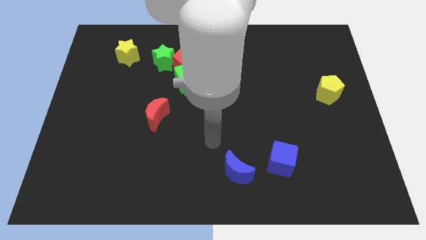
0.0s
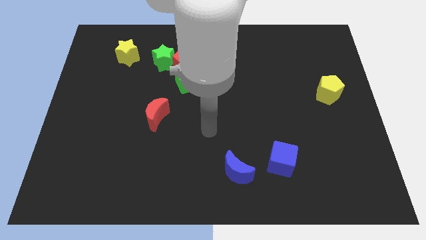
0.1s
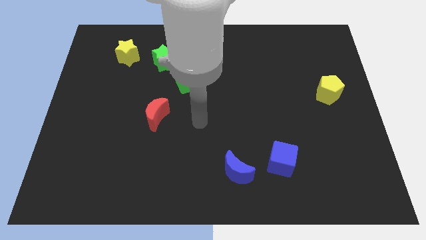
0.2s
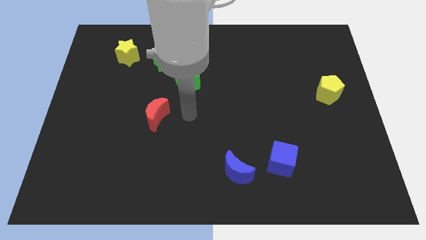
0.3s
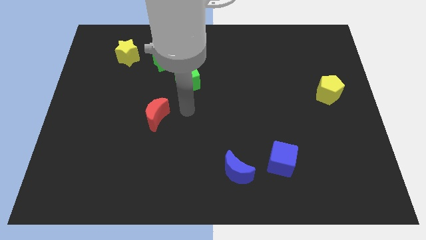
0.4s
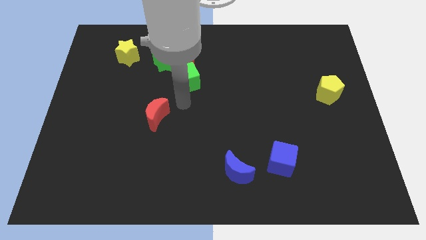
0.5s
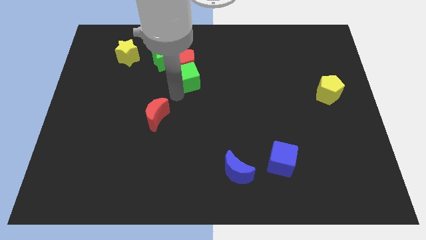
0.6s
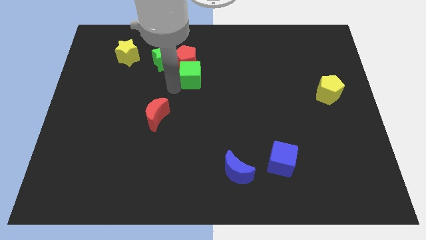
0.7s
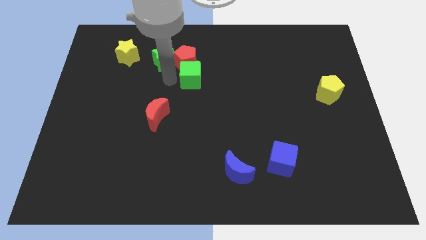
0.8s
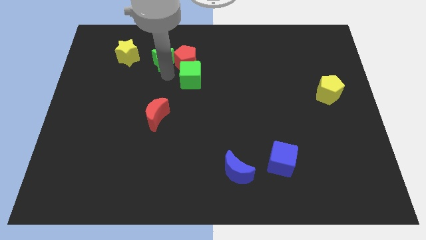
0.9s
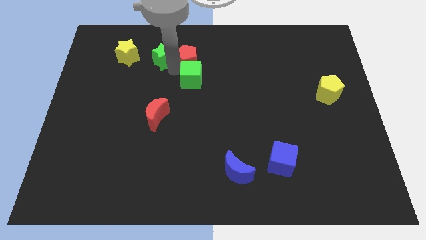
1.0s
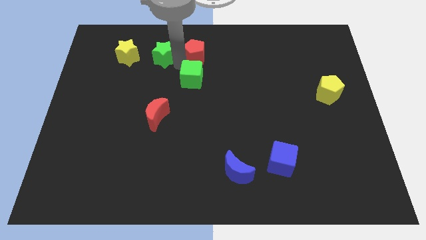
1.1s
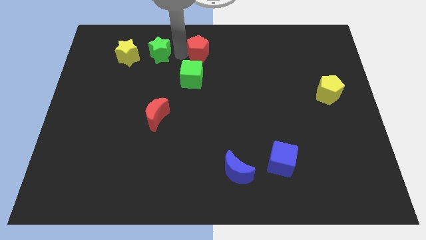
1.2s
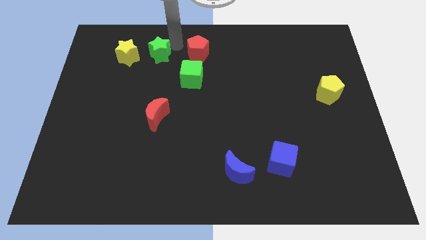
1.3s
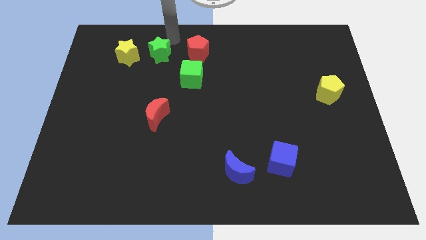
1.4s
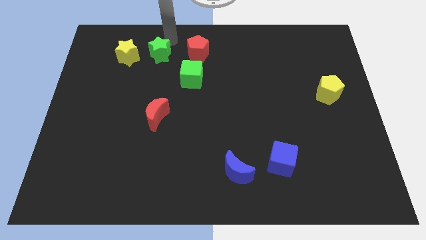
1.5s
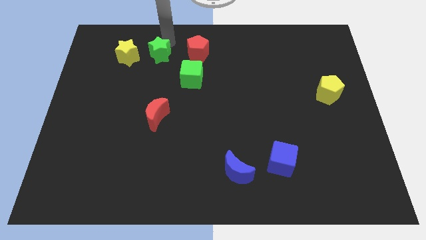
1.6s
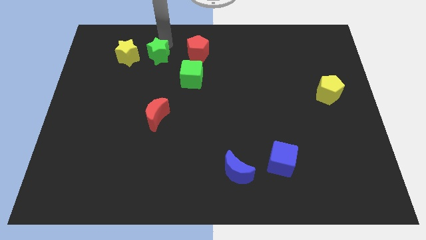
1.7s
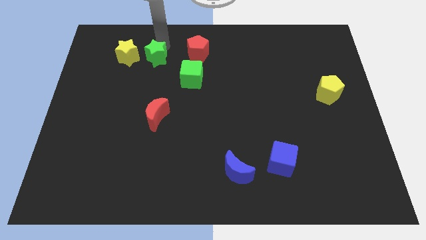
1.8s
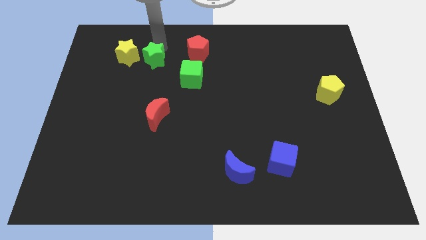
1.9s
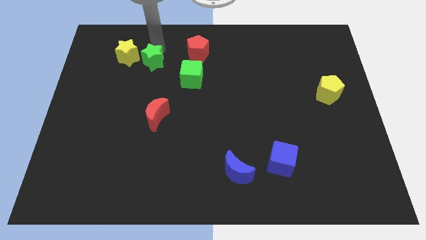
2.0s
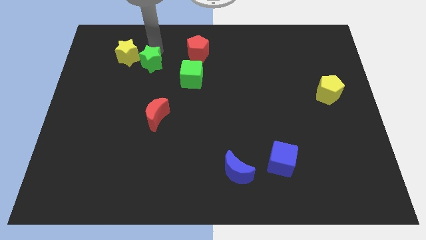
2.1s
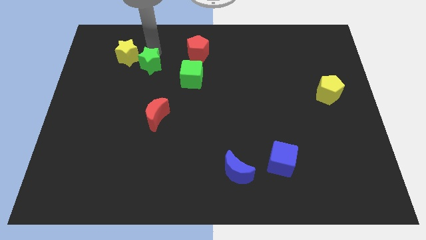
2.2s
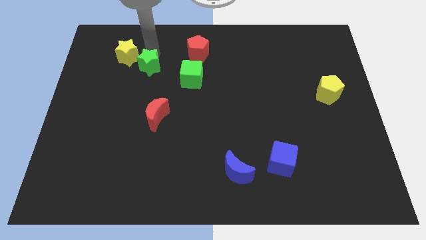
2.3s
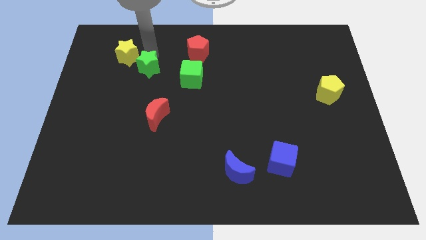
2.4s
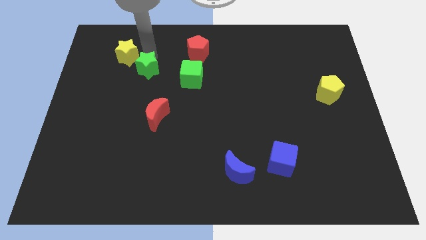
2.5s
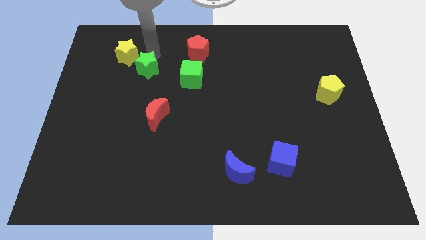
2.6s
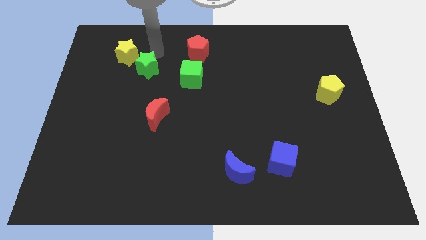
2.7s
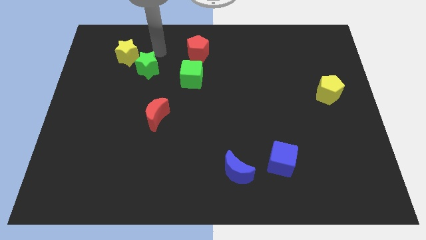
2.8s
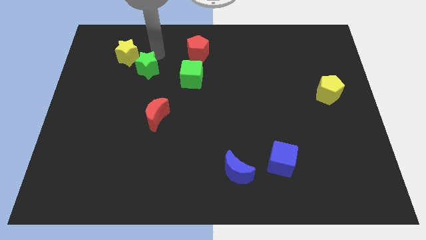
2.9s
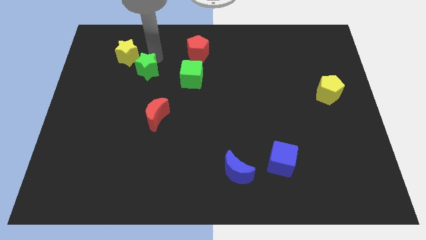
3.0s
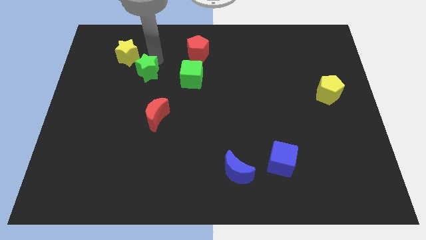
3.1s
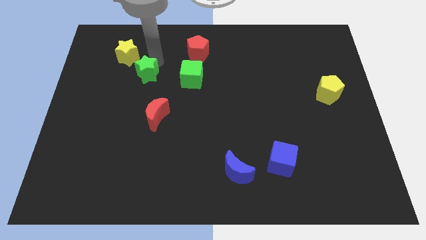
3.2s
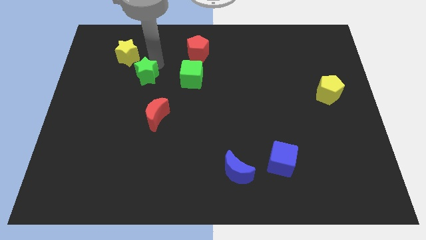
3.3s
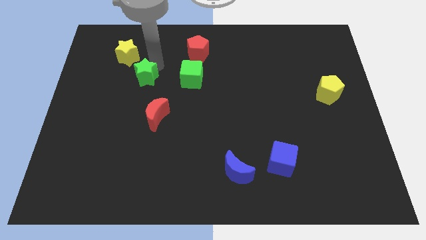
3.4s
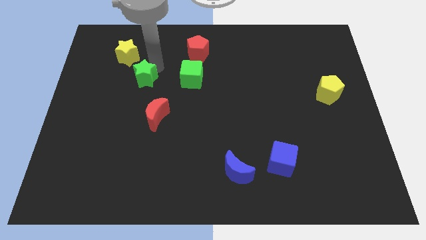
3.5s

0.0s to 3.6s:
slide the green star downwards and then left a little bit

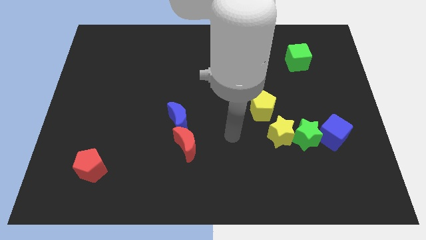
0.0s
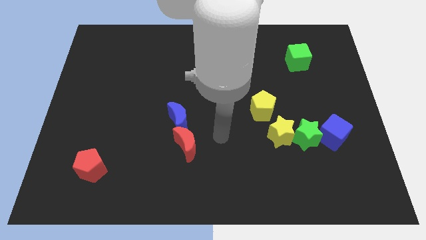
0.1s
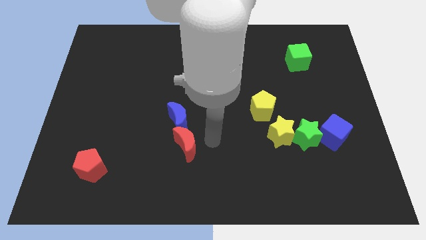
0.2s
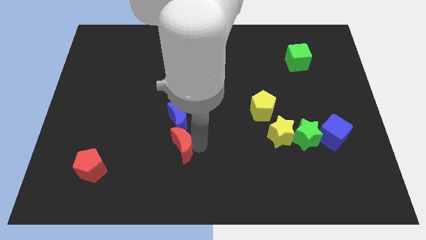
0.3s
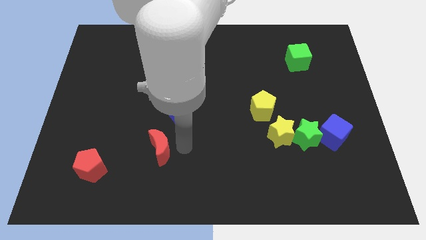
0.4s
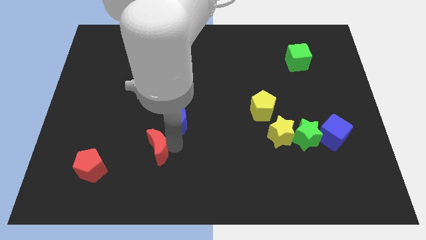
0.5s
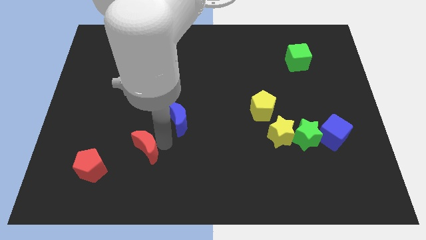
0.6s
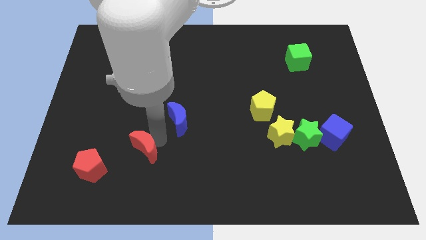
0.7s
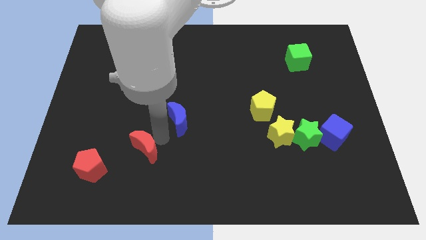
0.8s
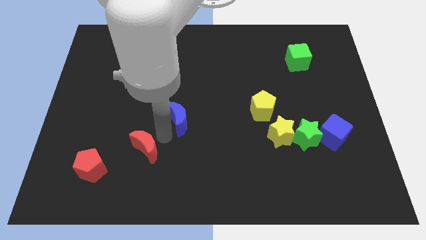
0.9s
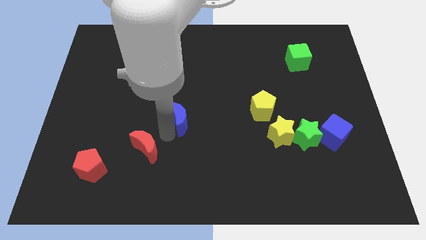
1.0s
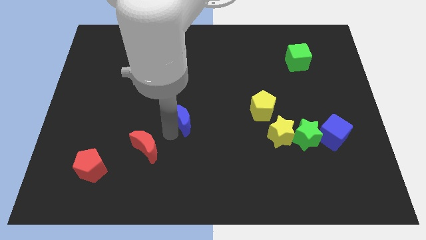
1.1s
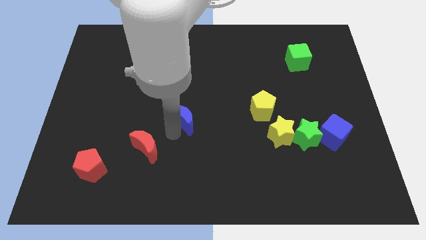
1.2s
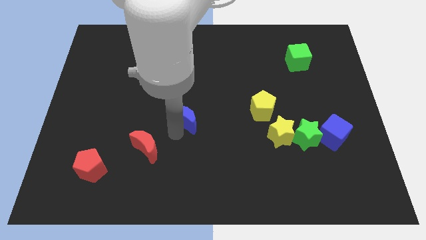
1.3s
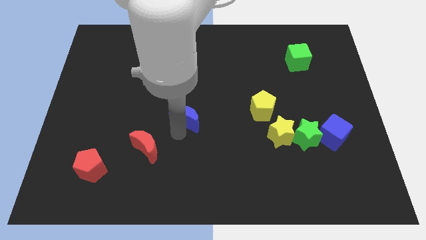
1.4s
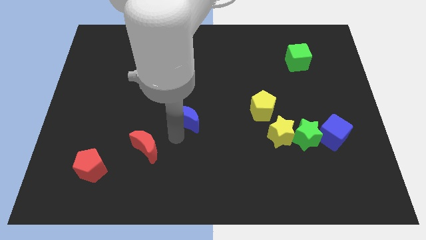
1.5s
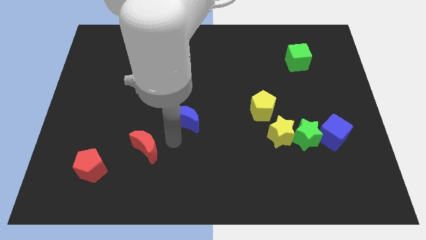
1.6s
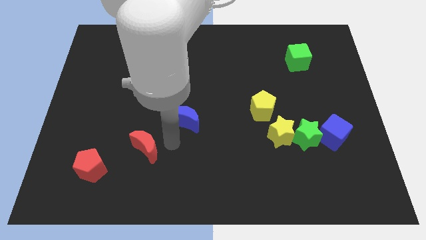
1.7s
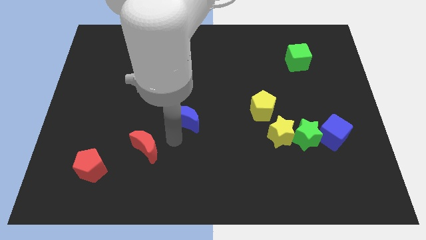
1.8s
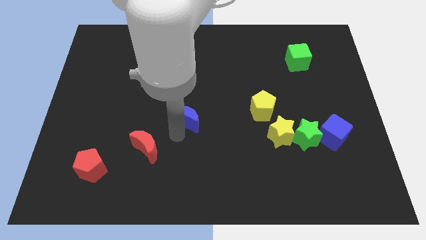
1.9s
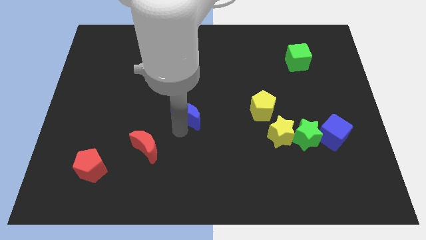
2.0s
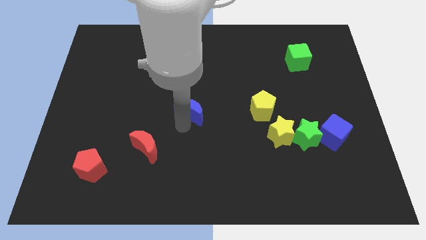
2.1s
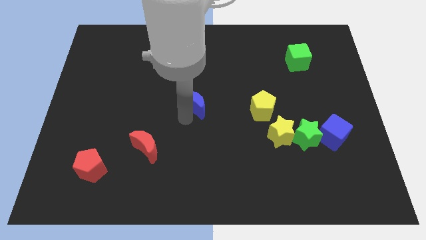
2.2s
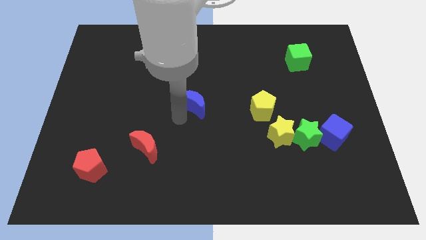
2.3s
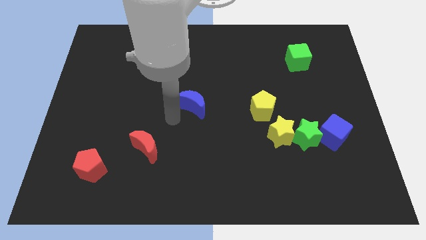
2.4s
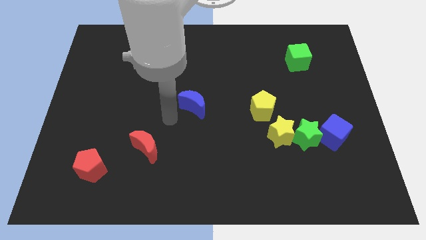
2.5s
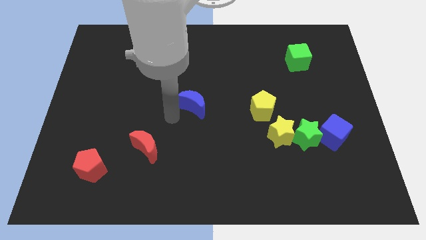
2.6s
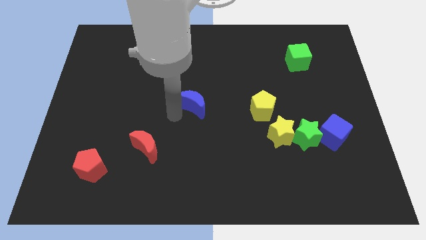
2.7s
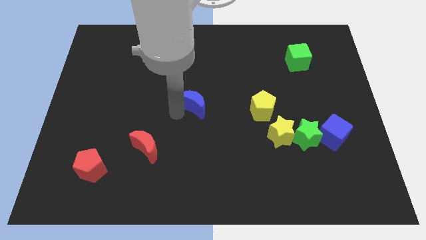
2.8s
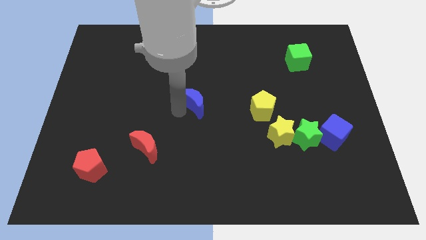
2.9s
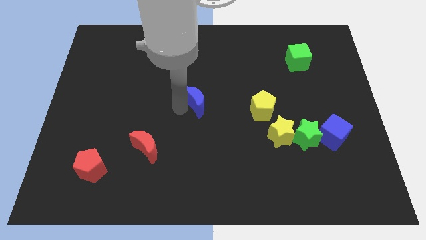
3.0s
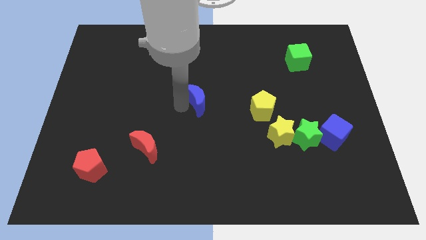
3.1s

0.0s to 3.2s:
slide the blue moon diagonally up and right slightly

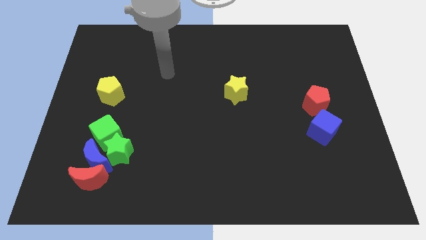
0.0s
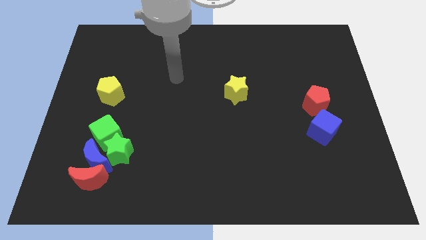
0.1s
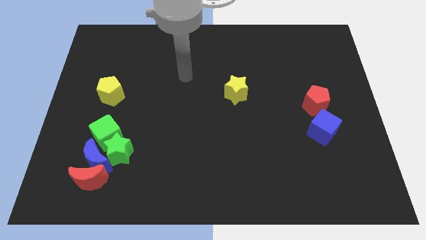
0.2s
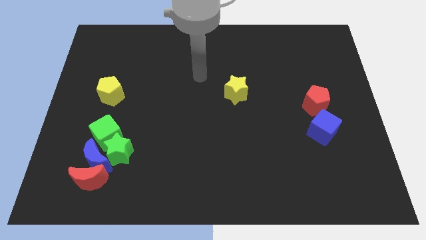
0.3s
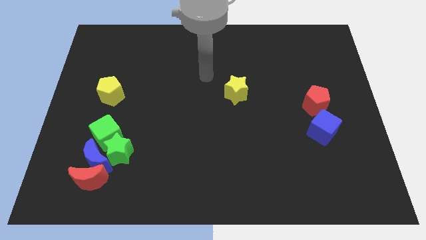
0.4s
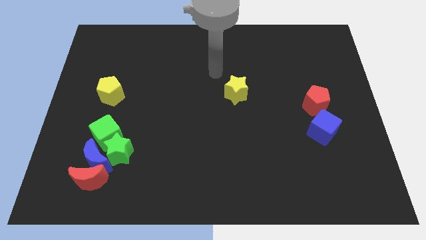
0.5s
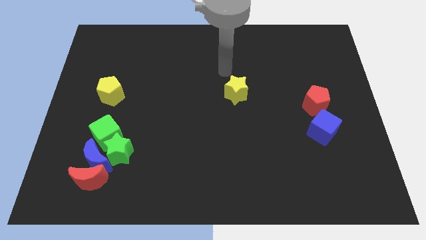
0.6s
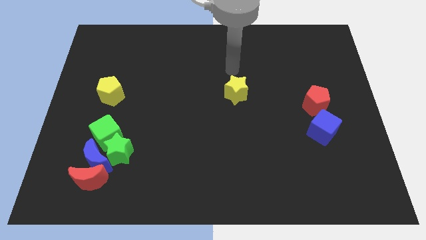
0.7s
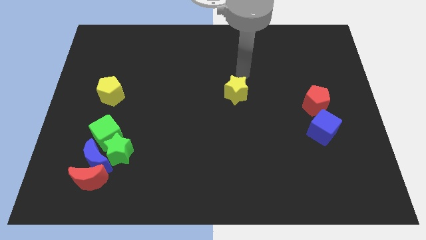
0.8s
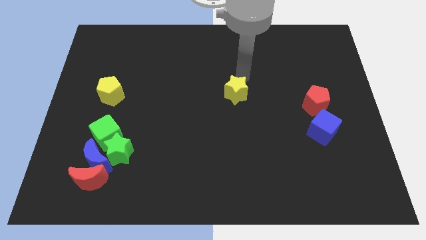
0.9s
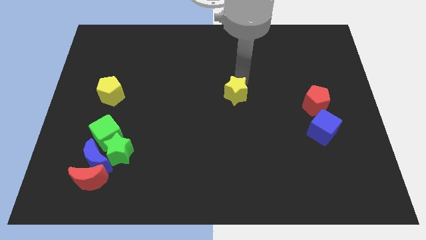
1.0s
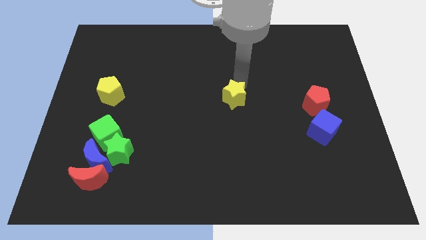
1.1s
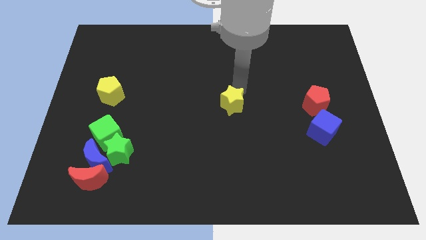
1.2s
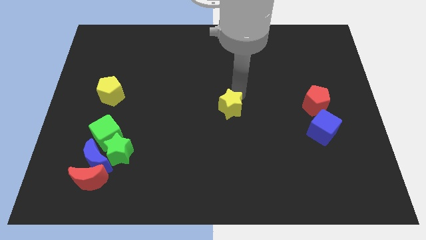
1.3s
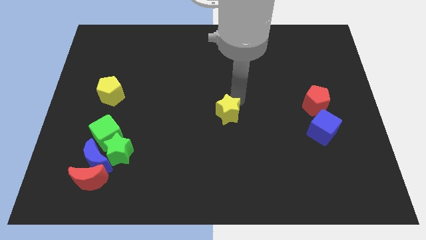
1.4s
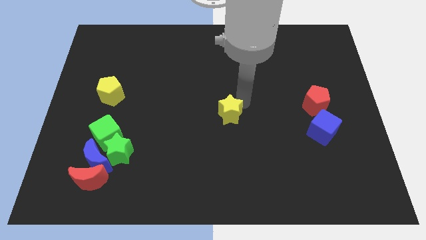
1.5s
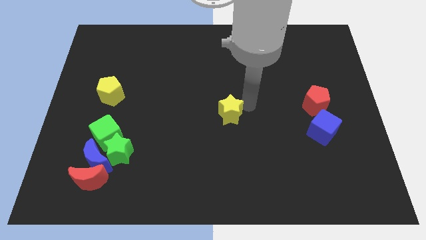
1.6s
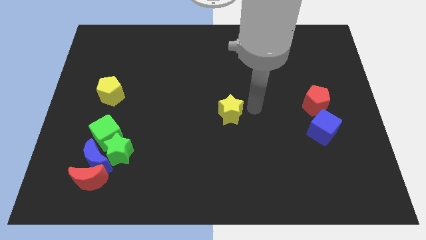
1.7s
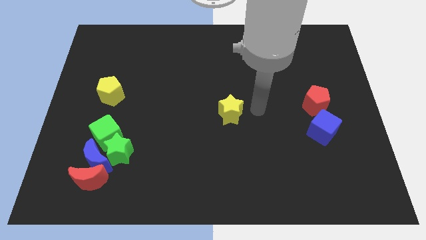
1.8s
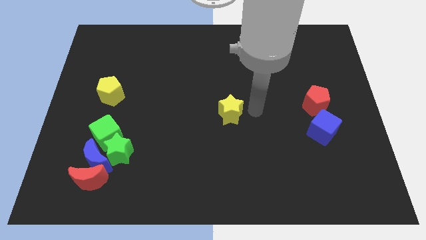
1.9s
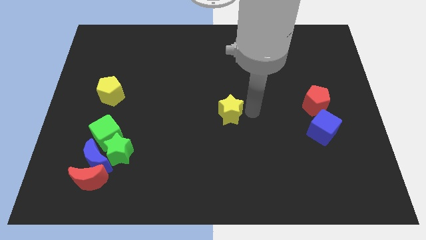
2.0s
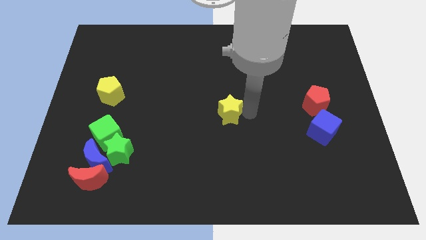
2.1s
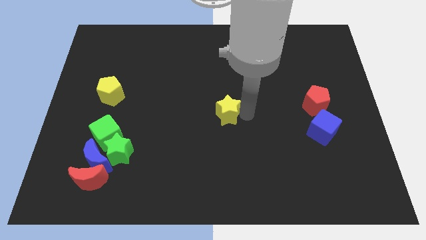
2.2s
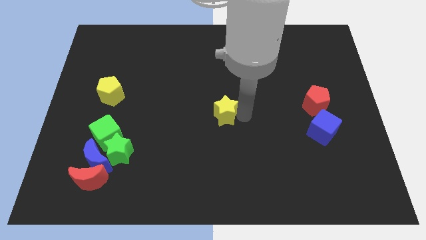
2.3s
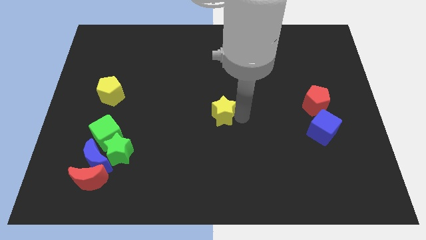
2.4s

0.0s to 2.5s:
push the yellow star down and then left a bit
